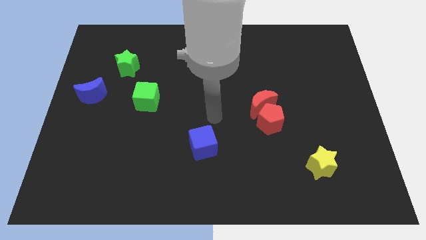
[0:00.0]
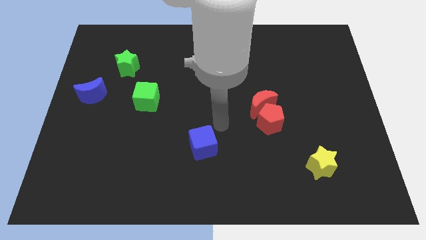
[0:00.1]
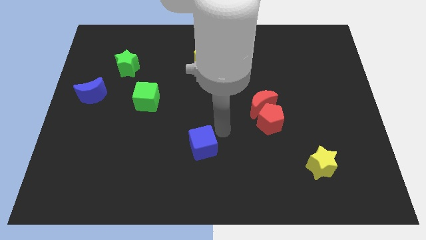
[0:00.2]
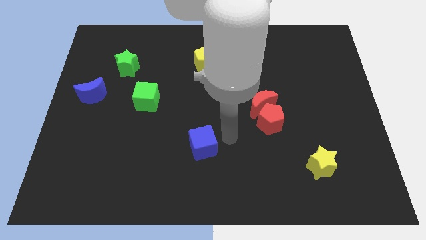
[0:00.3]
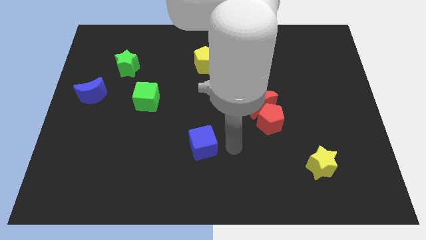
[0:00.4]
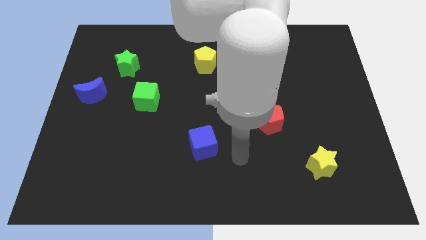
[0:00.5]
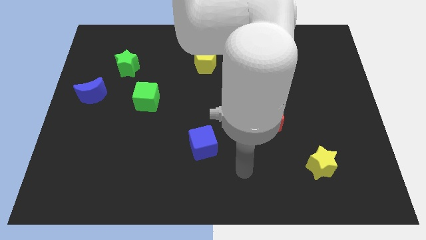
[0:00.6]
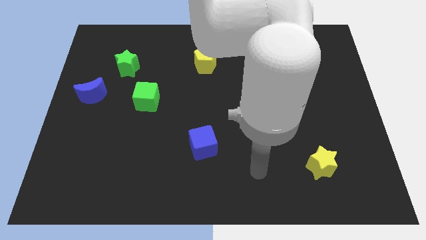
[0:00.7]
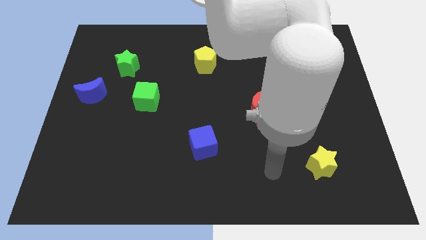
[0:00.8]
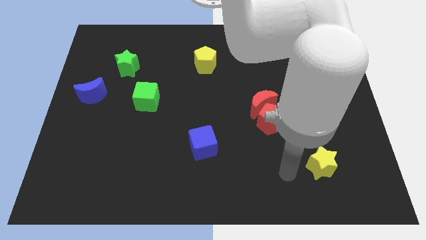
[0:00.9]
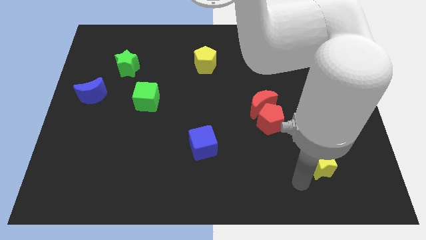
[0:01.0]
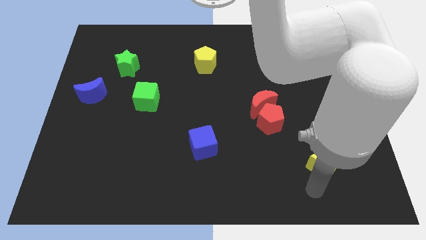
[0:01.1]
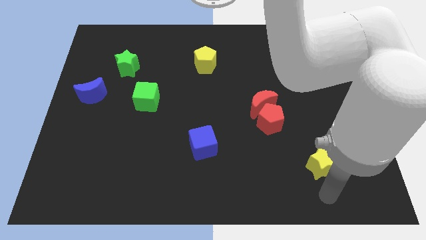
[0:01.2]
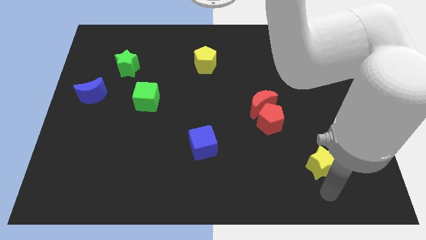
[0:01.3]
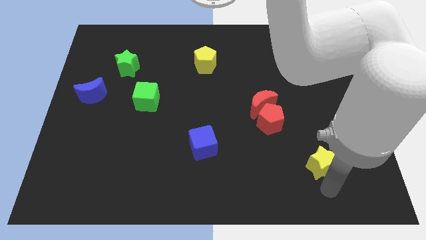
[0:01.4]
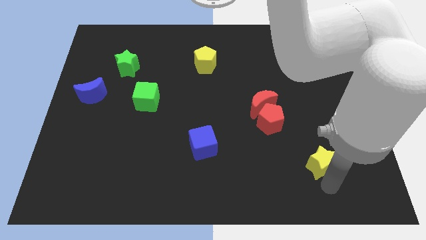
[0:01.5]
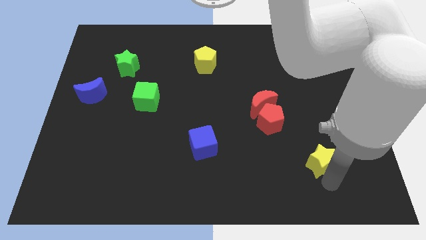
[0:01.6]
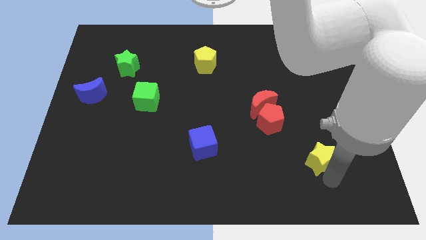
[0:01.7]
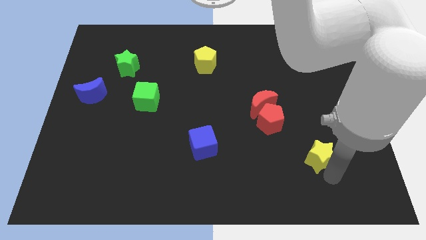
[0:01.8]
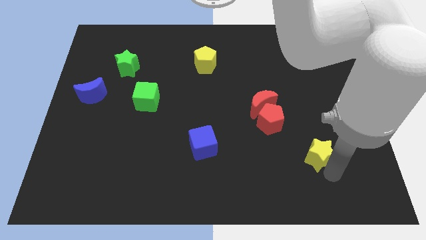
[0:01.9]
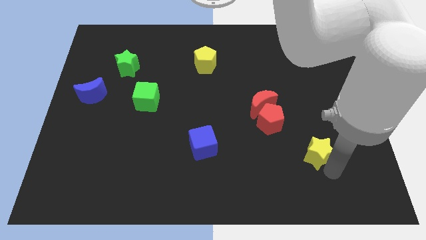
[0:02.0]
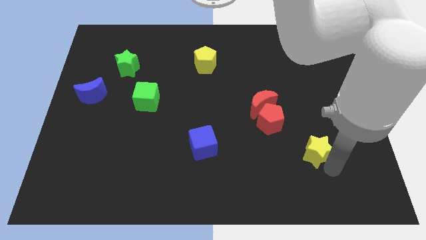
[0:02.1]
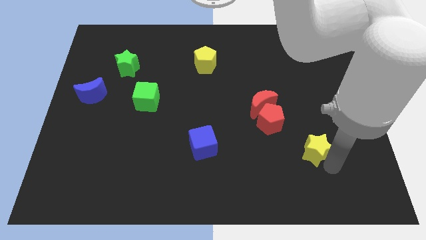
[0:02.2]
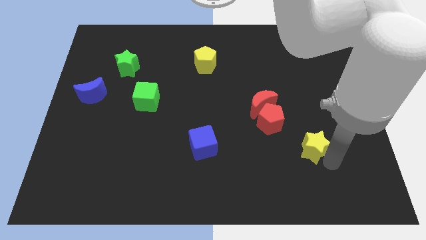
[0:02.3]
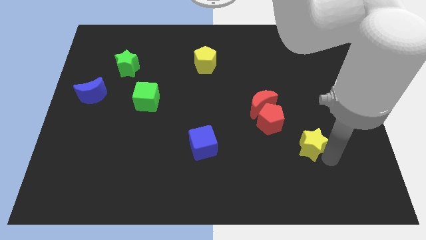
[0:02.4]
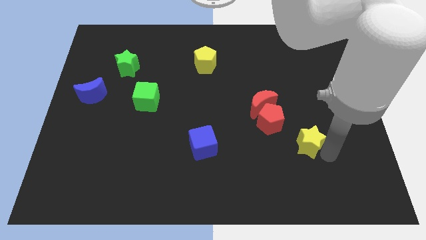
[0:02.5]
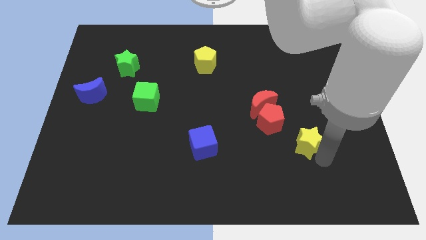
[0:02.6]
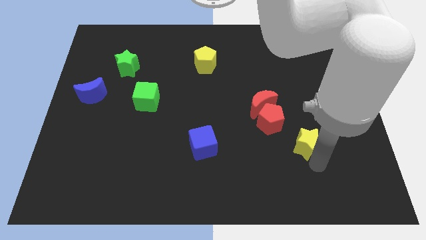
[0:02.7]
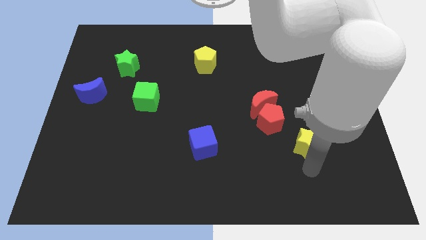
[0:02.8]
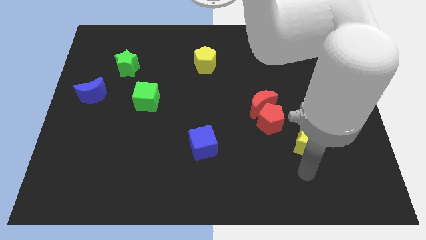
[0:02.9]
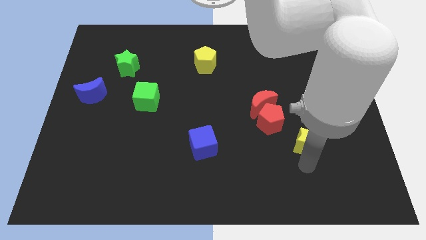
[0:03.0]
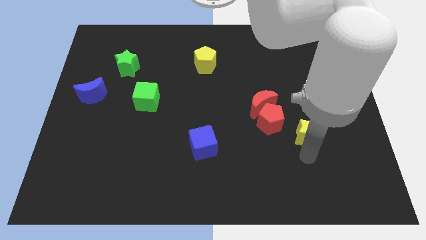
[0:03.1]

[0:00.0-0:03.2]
slightly move the yellow star upwards

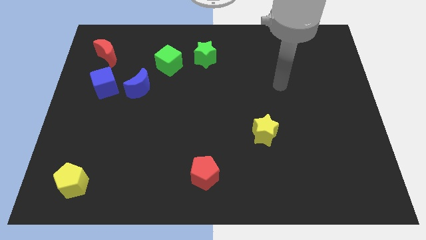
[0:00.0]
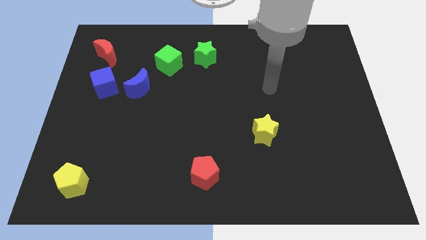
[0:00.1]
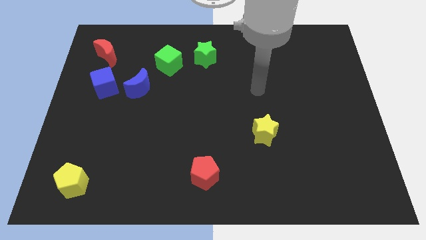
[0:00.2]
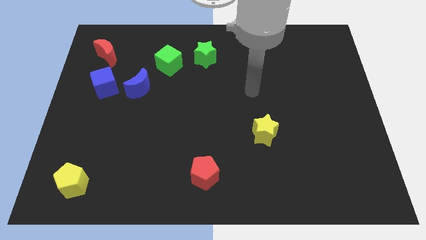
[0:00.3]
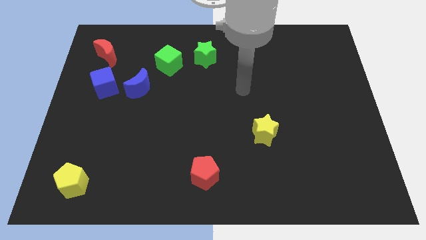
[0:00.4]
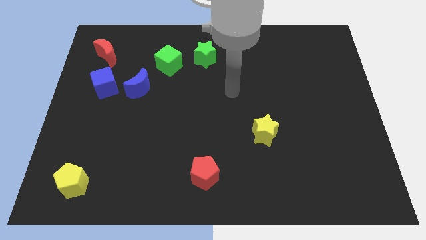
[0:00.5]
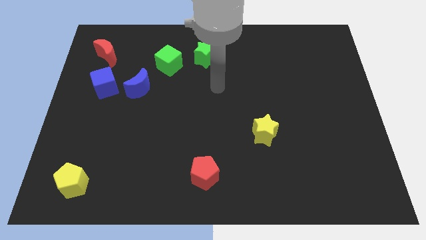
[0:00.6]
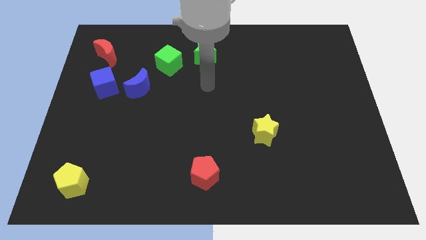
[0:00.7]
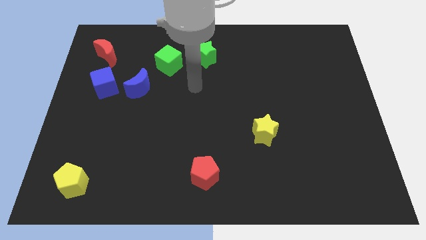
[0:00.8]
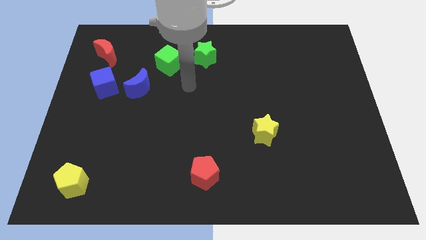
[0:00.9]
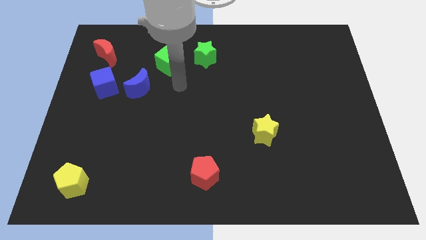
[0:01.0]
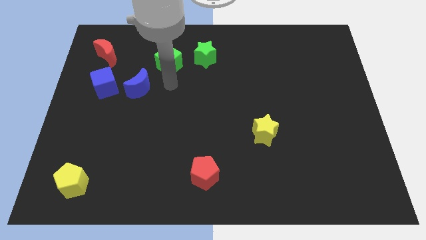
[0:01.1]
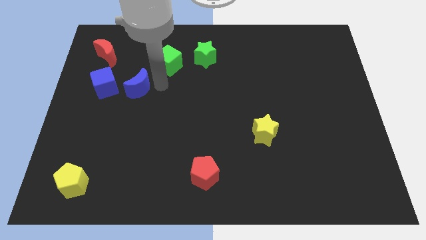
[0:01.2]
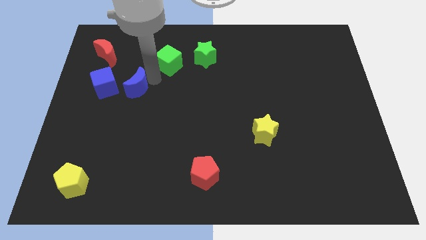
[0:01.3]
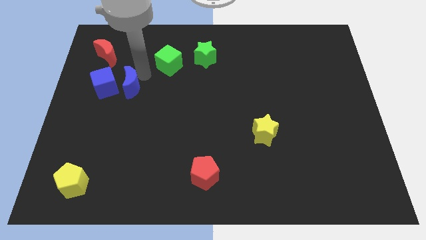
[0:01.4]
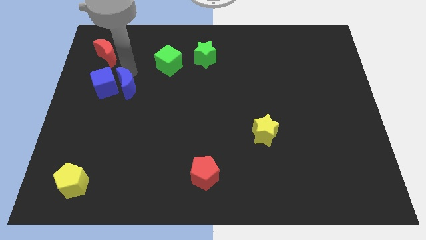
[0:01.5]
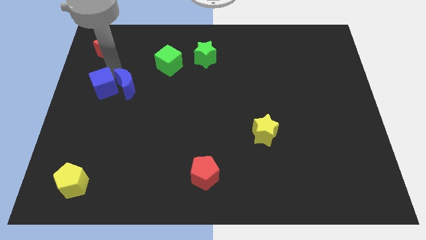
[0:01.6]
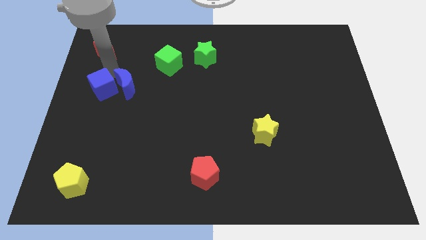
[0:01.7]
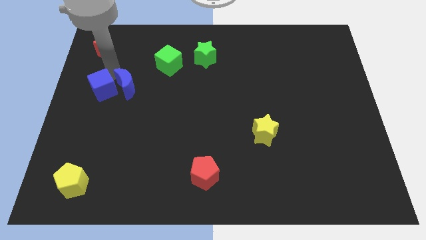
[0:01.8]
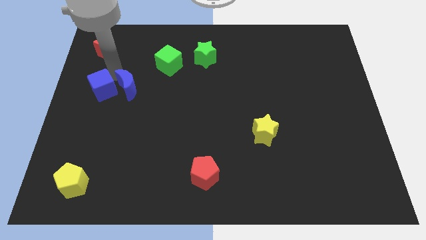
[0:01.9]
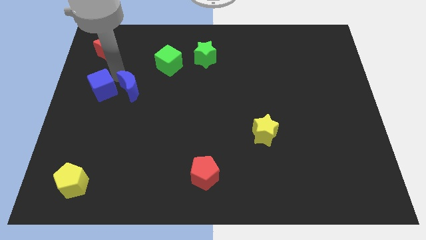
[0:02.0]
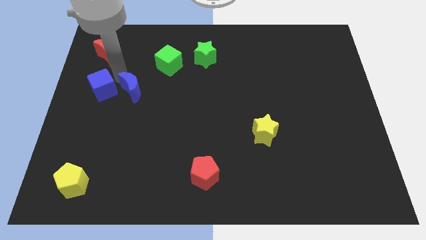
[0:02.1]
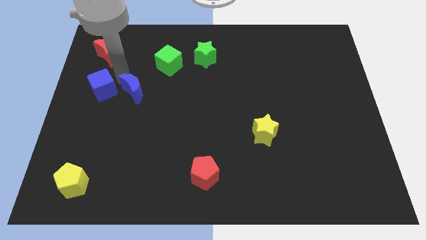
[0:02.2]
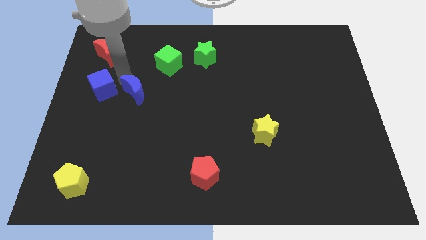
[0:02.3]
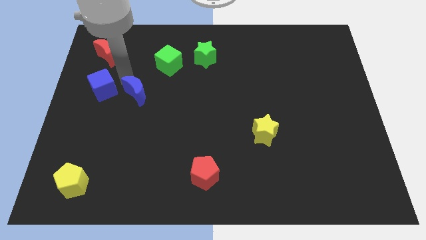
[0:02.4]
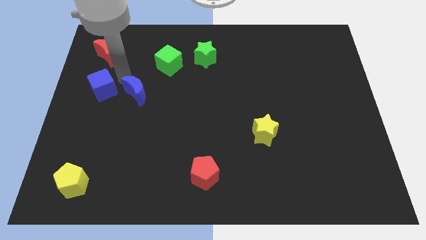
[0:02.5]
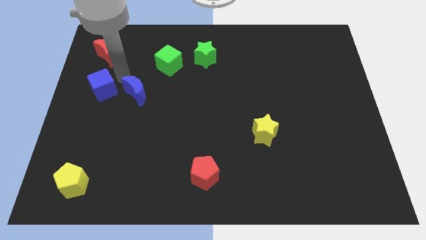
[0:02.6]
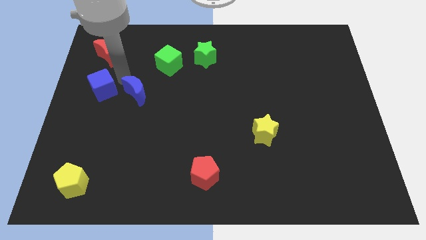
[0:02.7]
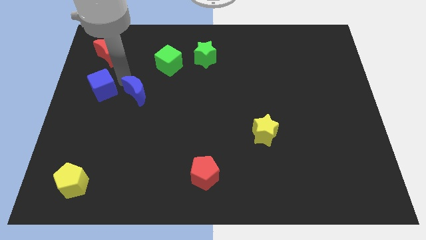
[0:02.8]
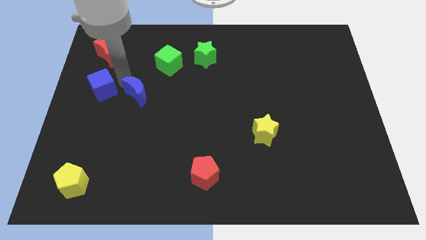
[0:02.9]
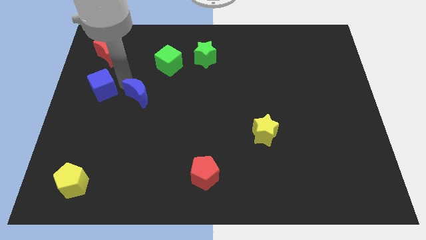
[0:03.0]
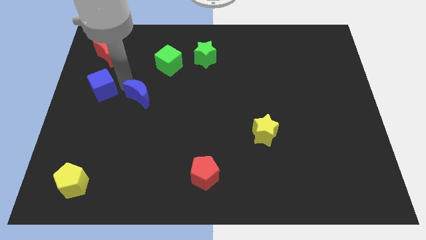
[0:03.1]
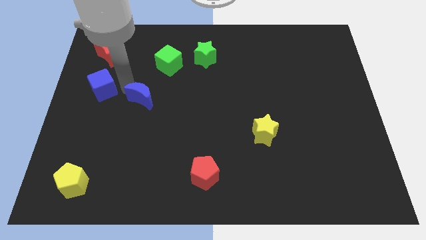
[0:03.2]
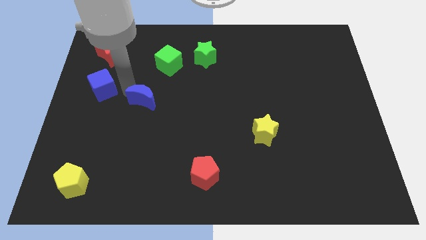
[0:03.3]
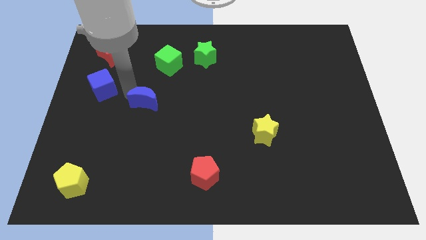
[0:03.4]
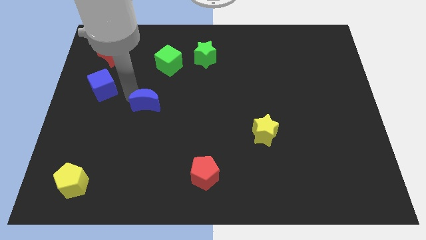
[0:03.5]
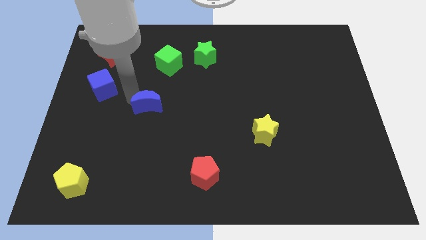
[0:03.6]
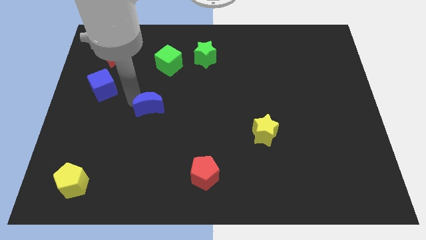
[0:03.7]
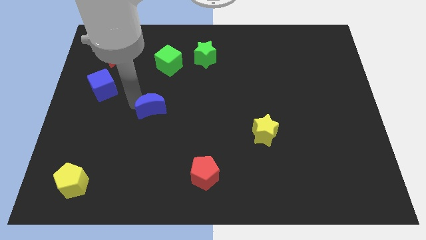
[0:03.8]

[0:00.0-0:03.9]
move the blue moon a little bit downwards and right diagonally

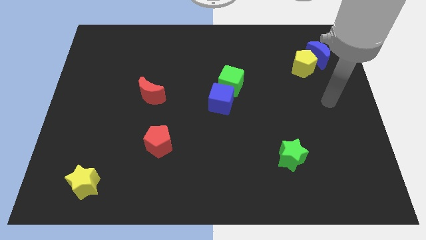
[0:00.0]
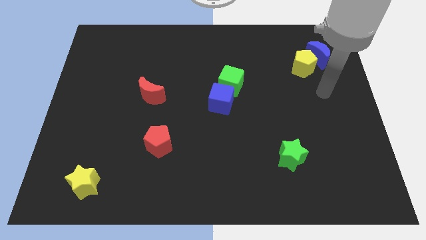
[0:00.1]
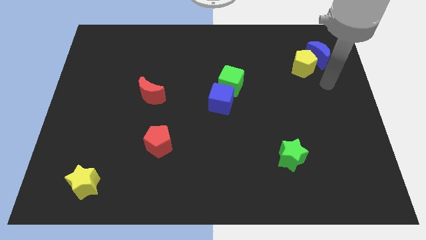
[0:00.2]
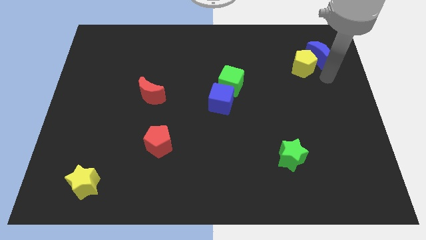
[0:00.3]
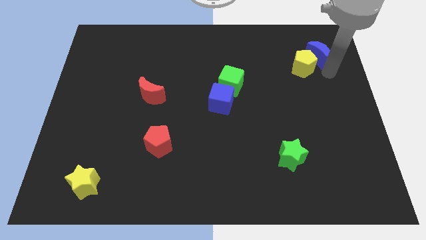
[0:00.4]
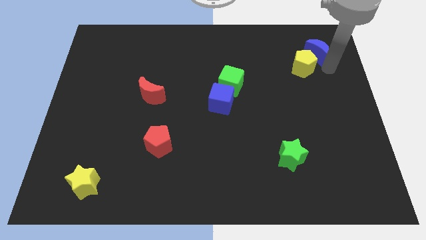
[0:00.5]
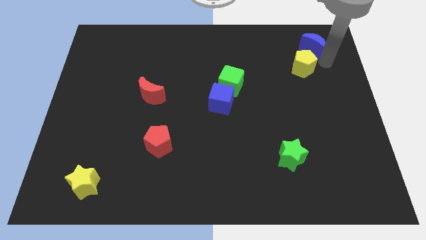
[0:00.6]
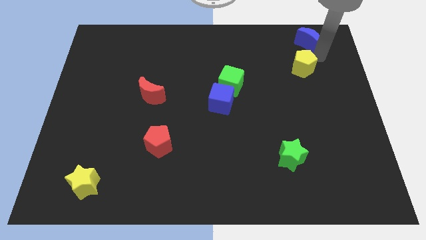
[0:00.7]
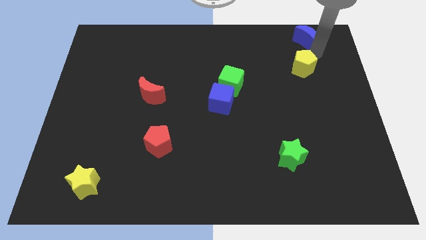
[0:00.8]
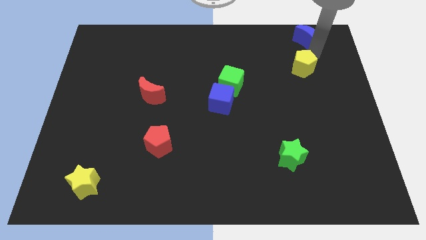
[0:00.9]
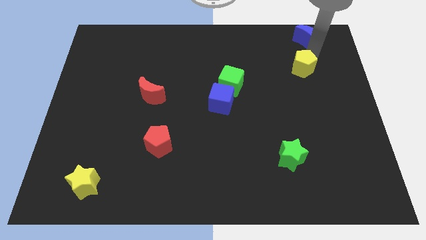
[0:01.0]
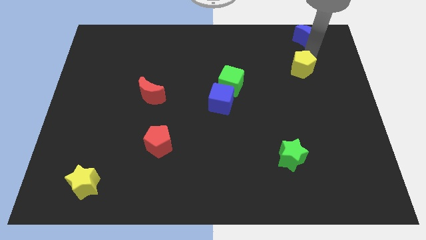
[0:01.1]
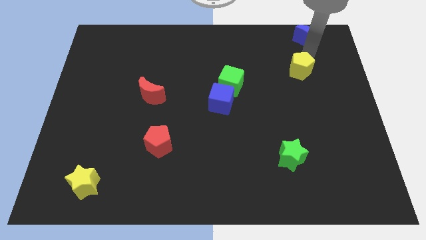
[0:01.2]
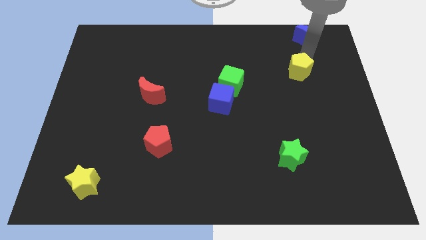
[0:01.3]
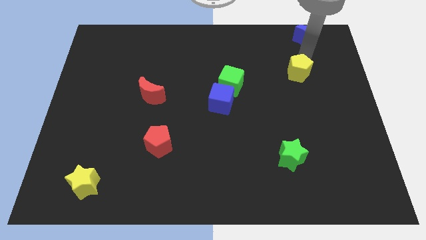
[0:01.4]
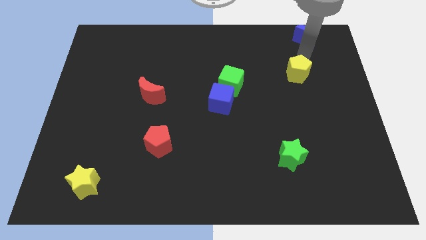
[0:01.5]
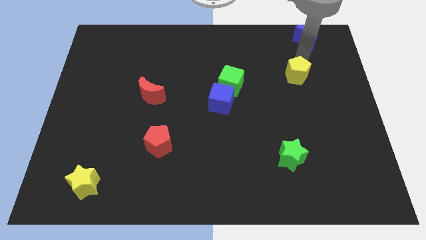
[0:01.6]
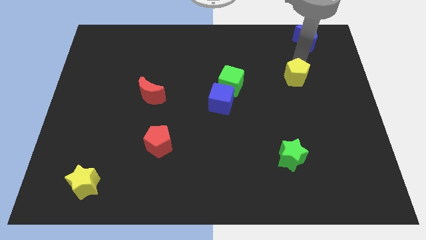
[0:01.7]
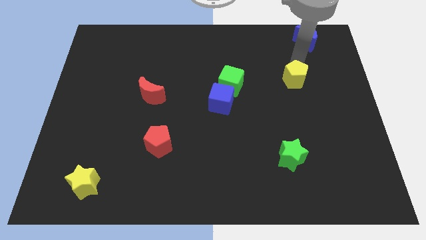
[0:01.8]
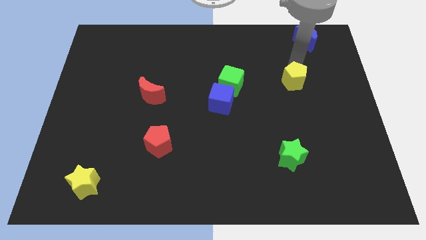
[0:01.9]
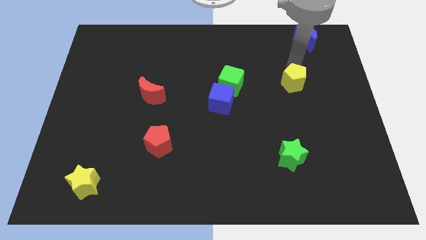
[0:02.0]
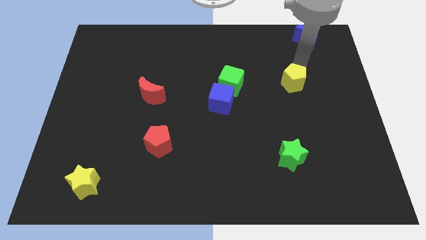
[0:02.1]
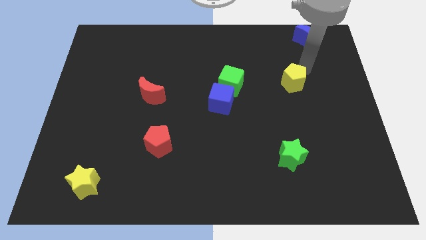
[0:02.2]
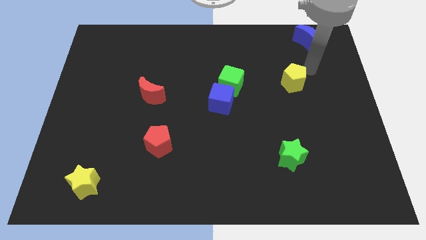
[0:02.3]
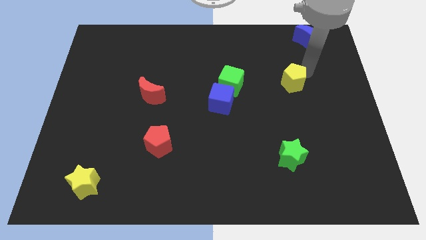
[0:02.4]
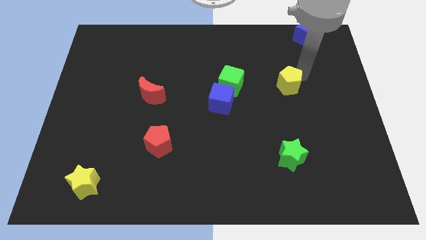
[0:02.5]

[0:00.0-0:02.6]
slightly slide the yellow pentagon downwards and to the left
